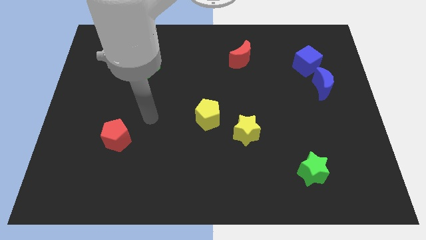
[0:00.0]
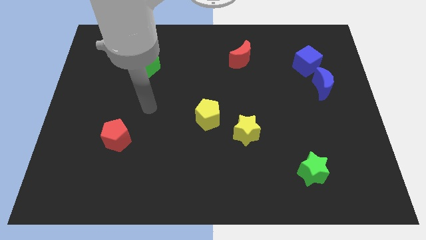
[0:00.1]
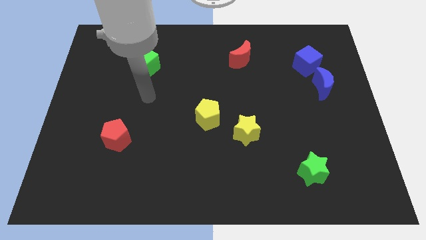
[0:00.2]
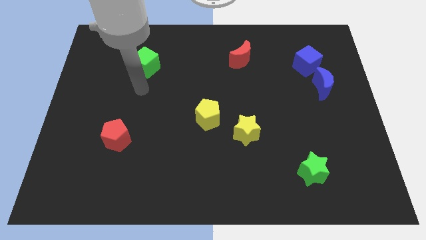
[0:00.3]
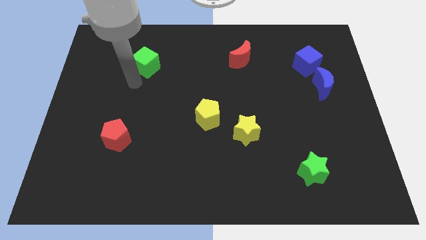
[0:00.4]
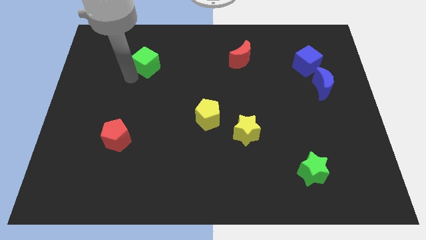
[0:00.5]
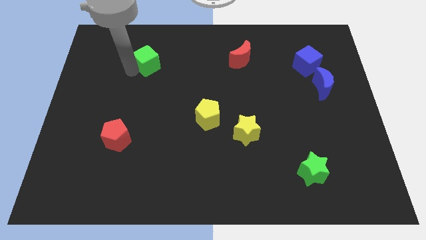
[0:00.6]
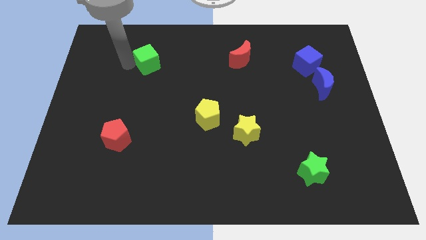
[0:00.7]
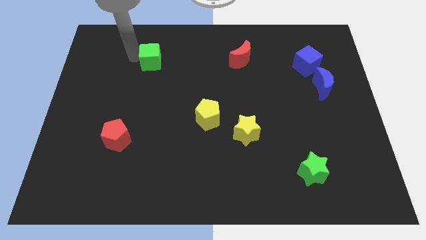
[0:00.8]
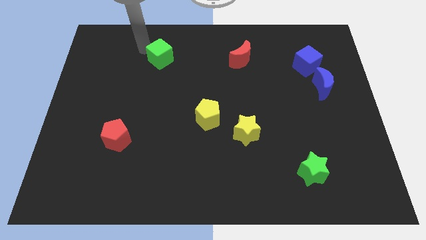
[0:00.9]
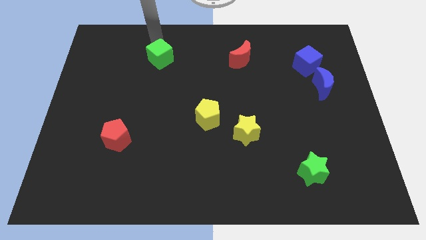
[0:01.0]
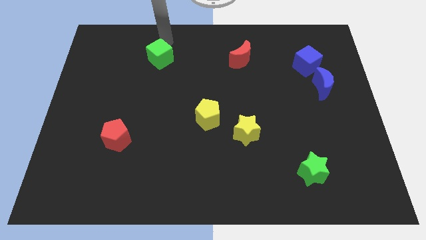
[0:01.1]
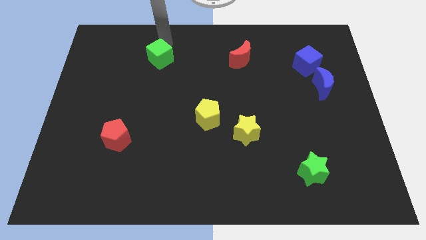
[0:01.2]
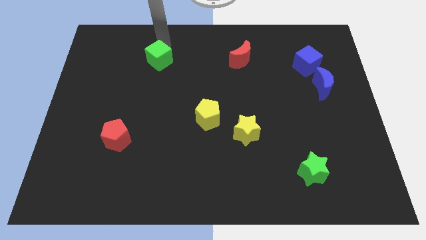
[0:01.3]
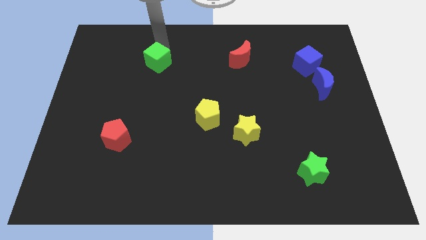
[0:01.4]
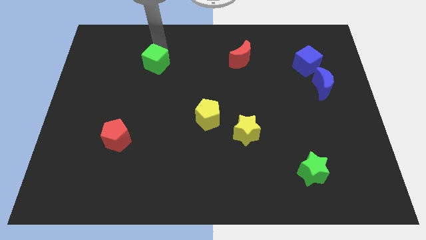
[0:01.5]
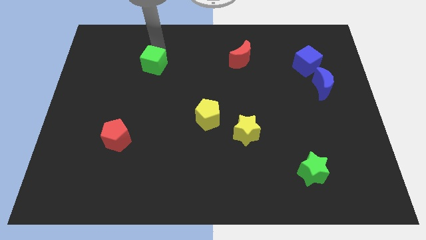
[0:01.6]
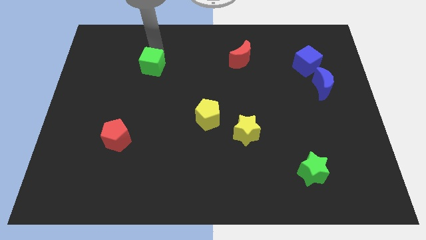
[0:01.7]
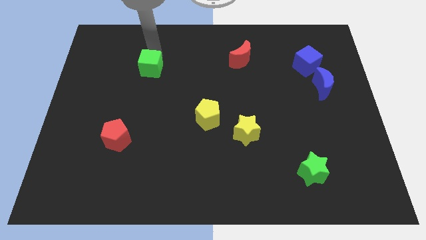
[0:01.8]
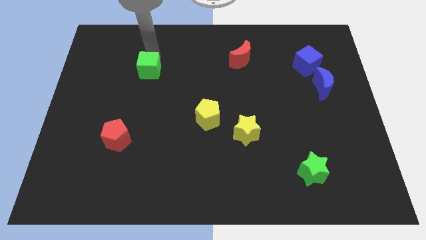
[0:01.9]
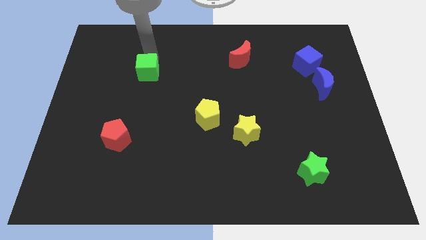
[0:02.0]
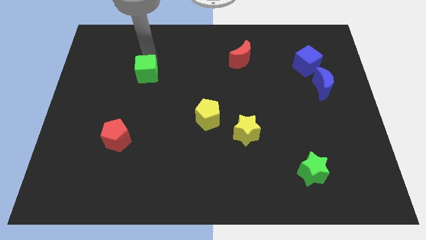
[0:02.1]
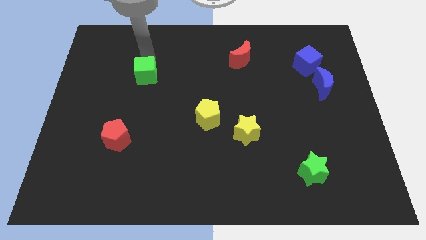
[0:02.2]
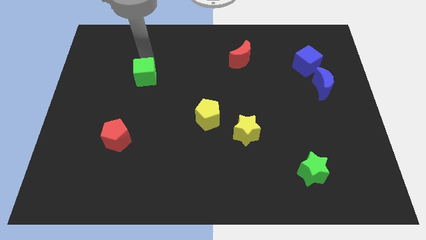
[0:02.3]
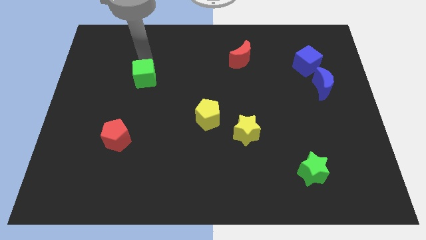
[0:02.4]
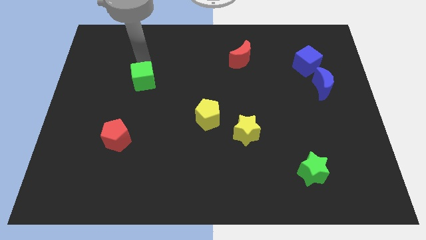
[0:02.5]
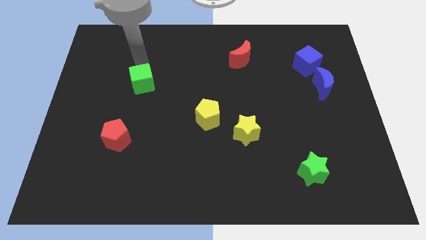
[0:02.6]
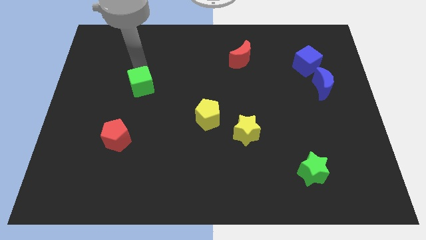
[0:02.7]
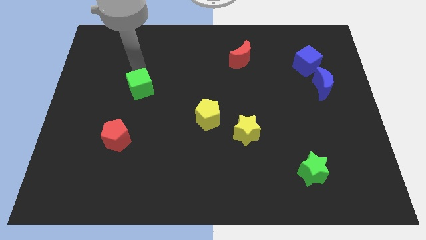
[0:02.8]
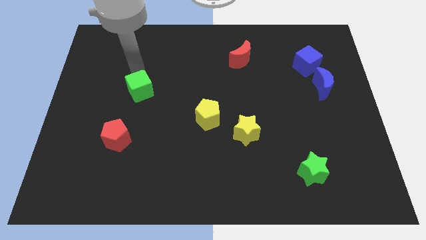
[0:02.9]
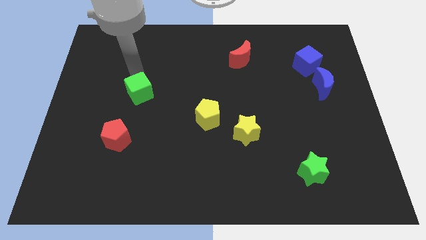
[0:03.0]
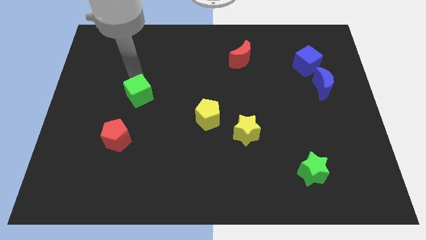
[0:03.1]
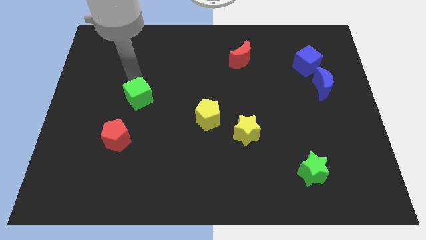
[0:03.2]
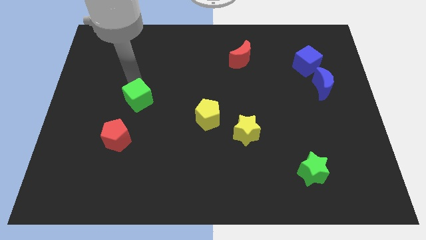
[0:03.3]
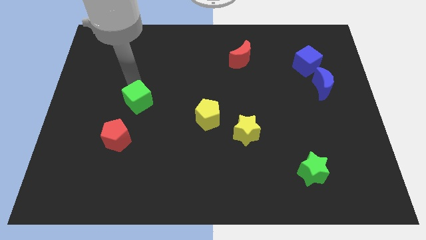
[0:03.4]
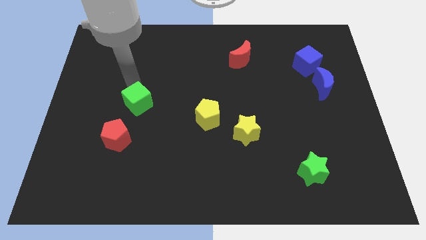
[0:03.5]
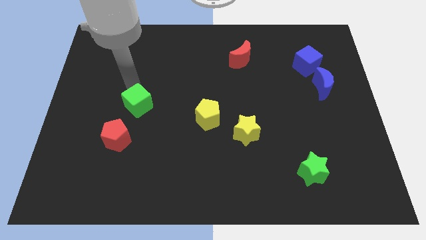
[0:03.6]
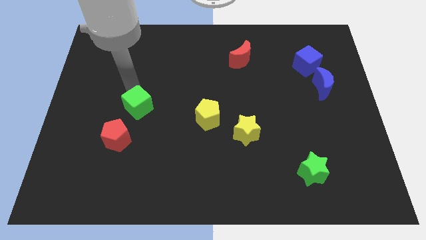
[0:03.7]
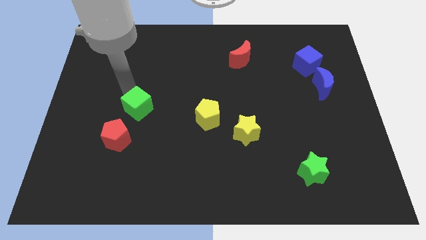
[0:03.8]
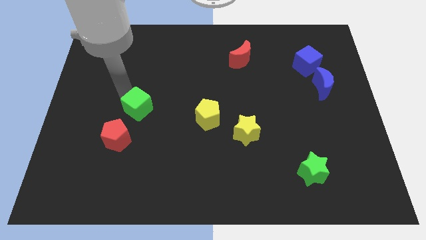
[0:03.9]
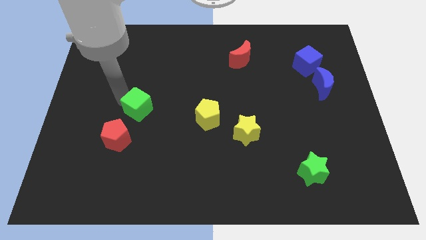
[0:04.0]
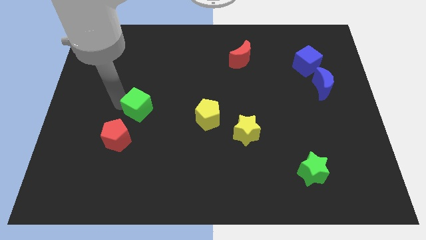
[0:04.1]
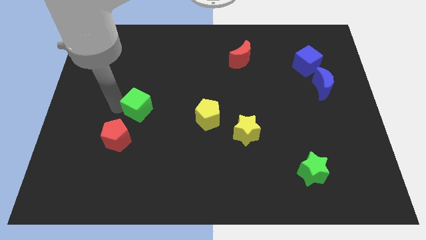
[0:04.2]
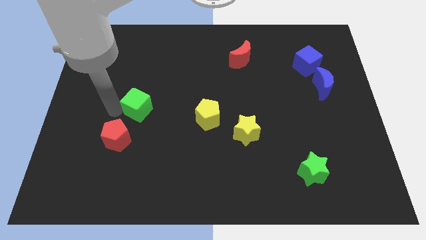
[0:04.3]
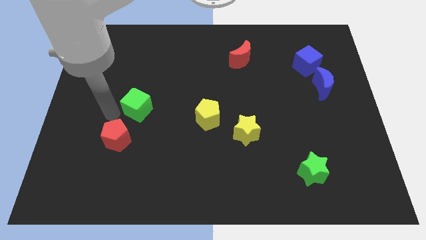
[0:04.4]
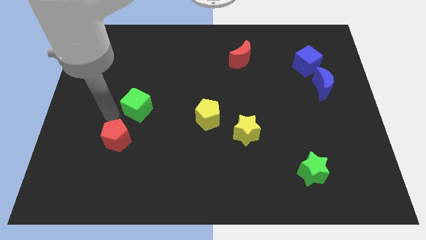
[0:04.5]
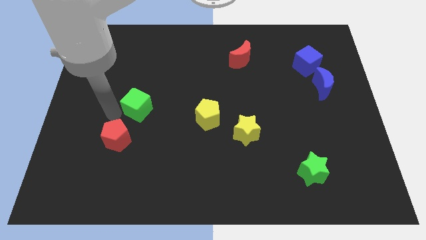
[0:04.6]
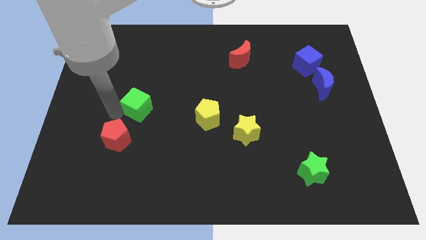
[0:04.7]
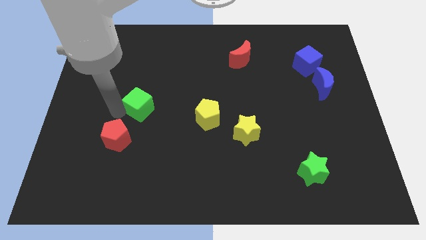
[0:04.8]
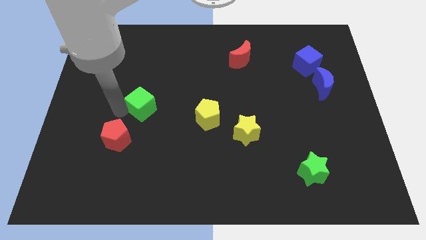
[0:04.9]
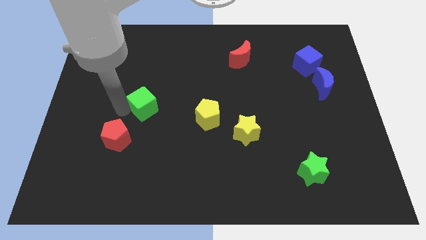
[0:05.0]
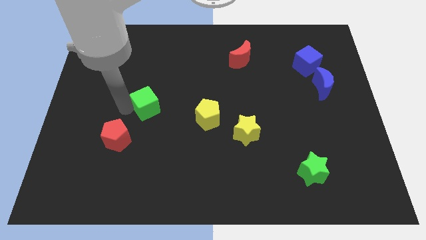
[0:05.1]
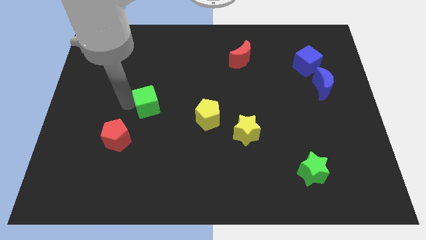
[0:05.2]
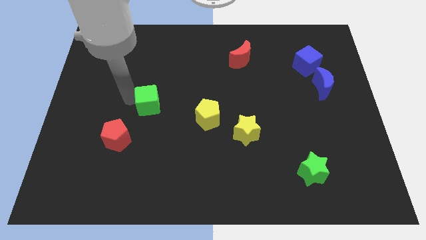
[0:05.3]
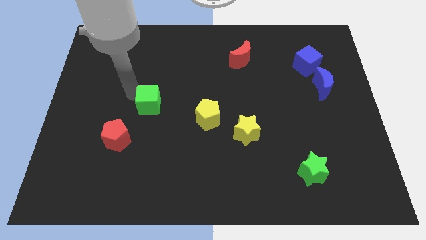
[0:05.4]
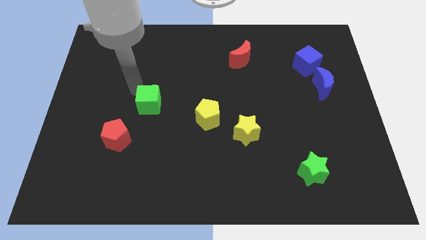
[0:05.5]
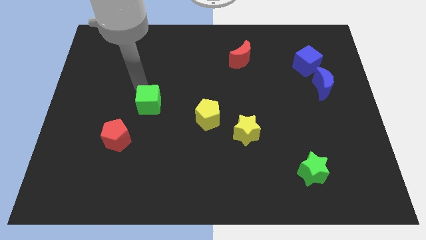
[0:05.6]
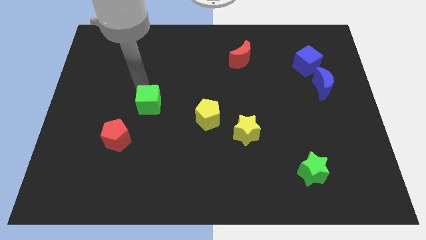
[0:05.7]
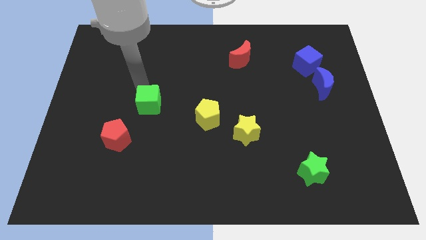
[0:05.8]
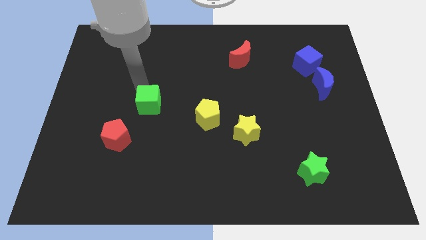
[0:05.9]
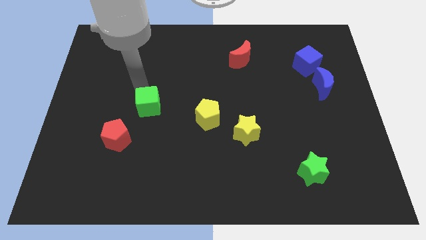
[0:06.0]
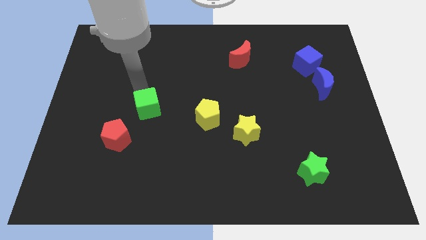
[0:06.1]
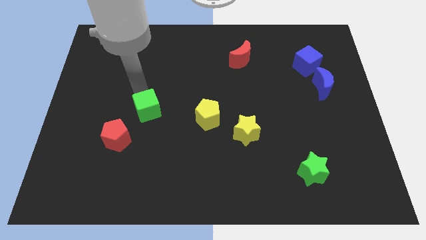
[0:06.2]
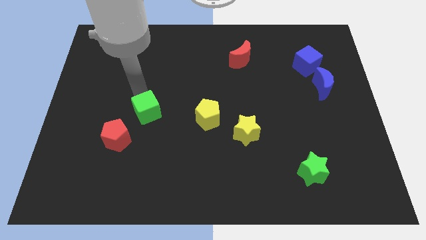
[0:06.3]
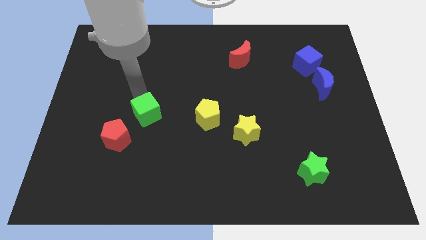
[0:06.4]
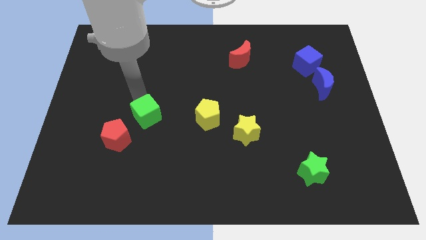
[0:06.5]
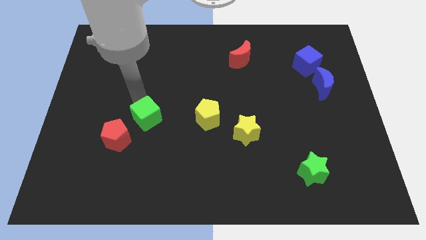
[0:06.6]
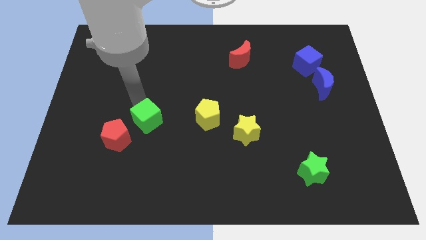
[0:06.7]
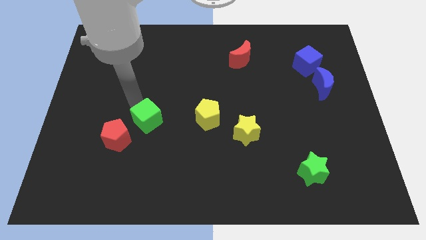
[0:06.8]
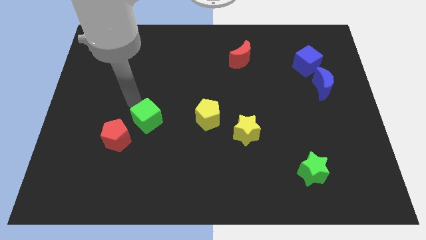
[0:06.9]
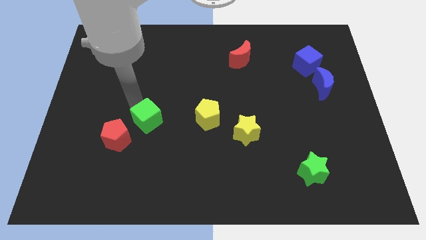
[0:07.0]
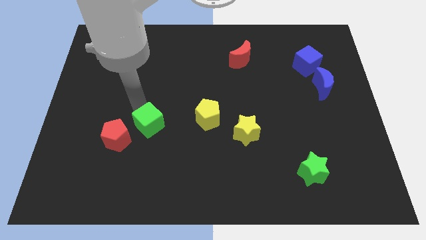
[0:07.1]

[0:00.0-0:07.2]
move the green cube right of the red pentagon
